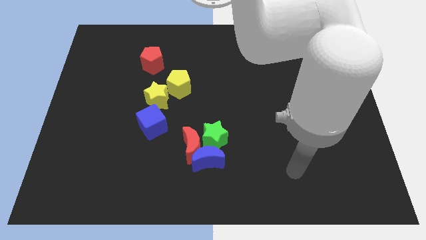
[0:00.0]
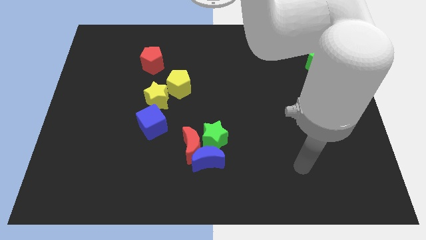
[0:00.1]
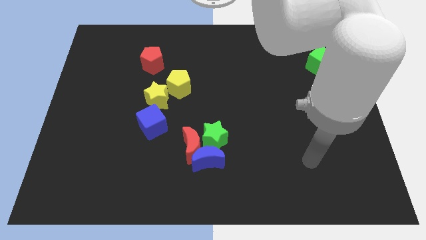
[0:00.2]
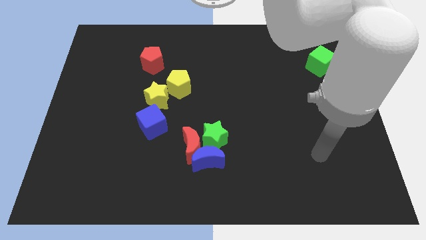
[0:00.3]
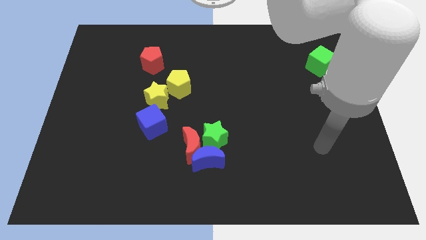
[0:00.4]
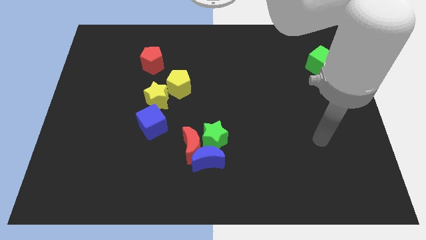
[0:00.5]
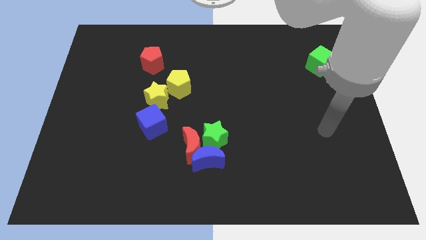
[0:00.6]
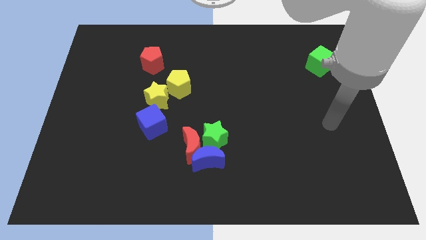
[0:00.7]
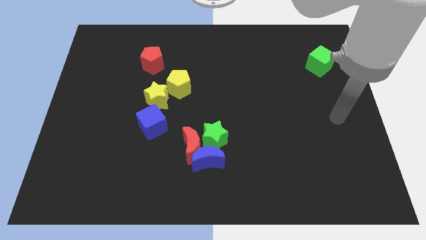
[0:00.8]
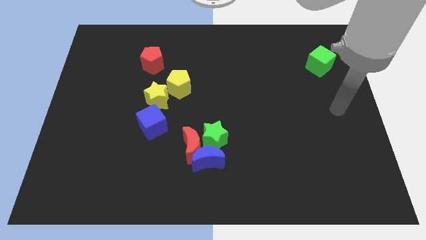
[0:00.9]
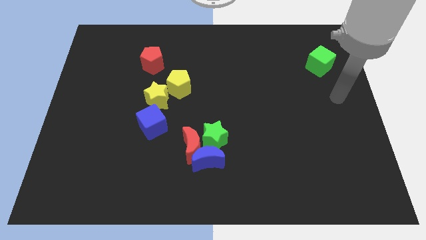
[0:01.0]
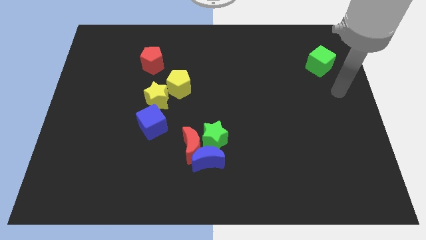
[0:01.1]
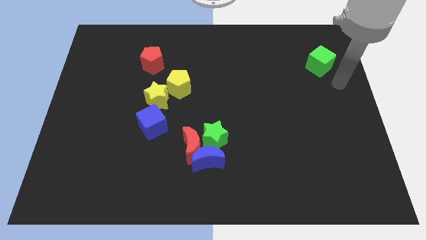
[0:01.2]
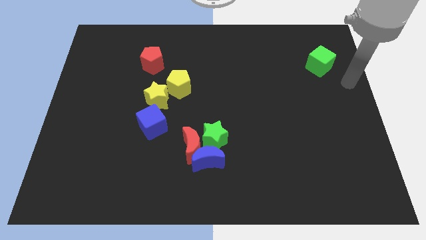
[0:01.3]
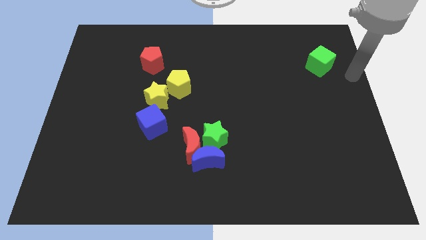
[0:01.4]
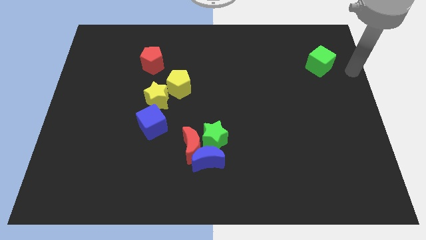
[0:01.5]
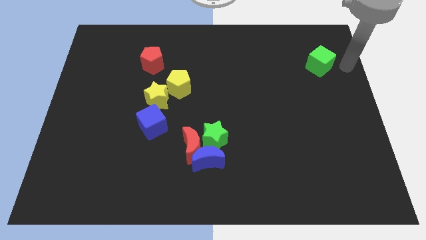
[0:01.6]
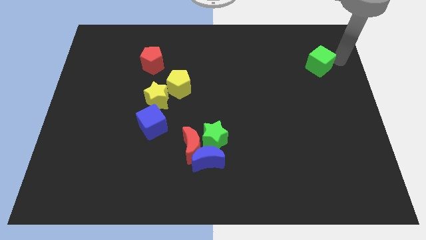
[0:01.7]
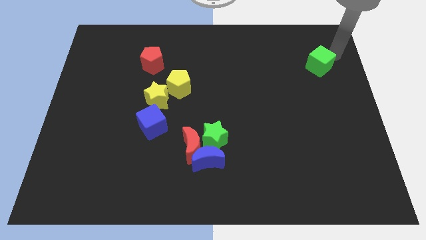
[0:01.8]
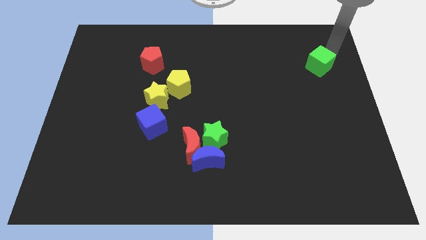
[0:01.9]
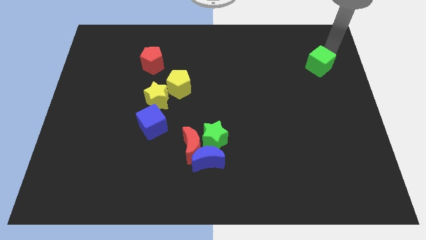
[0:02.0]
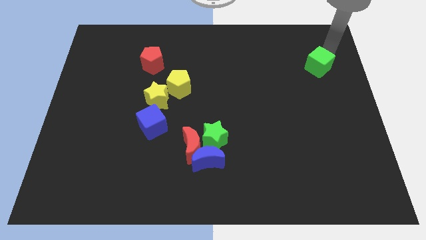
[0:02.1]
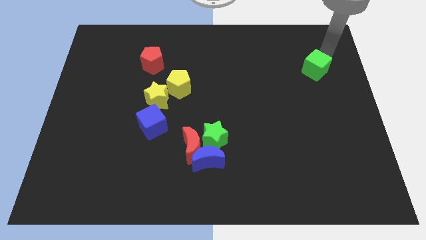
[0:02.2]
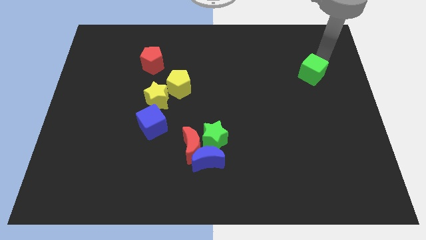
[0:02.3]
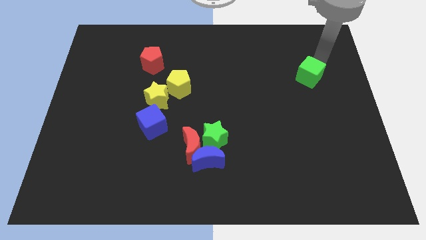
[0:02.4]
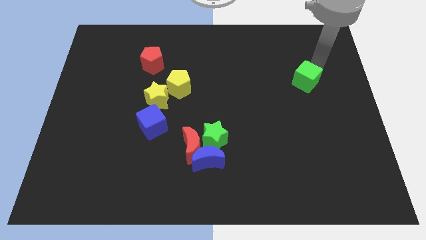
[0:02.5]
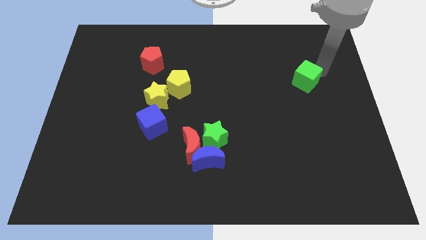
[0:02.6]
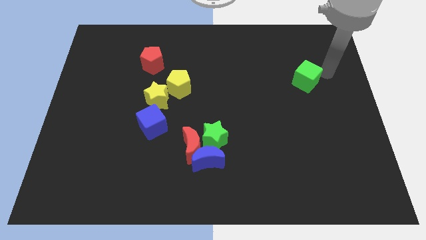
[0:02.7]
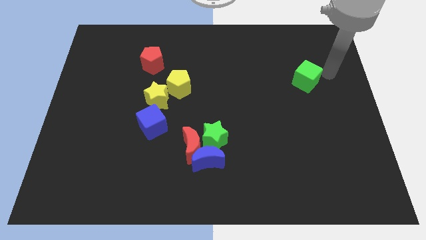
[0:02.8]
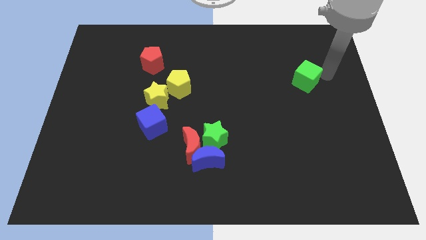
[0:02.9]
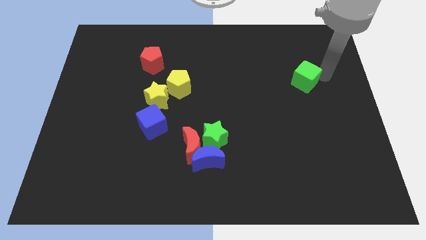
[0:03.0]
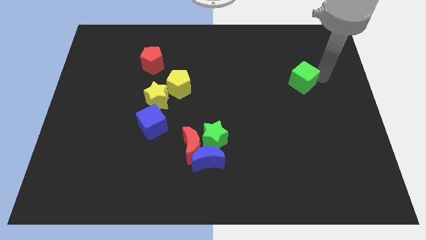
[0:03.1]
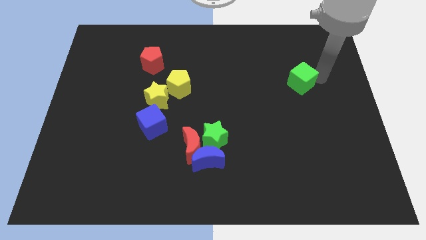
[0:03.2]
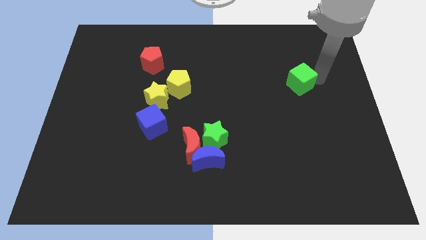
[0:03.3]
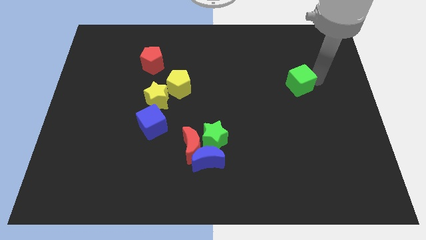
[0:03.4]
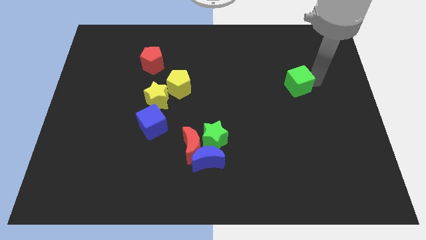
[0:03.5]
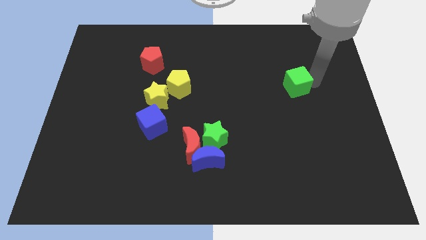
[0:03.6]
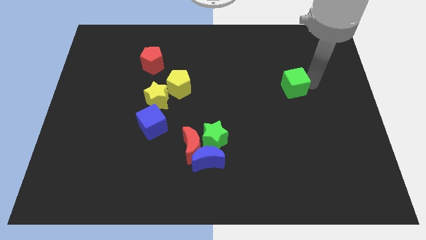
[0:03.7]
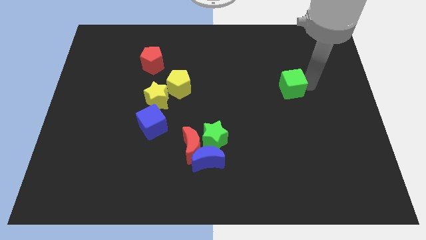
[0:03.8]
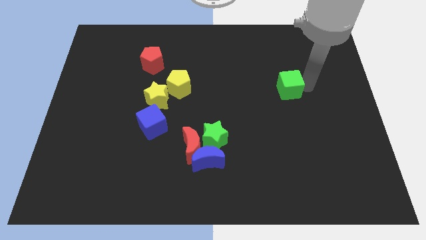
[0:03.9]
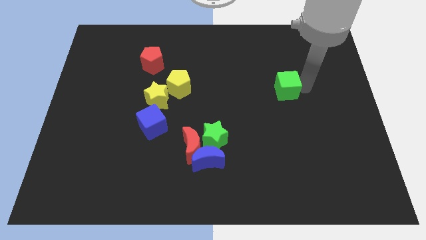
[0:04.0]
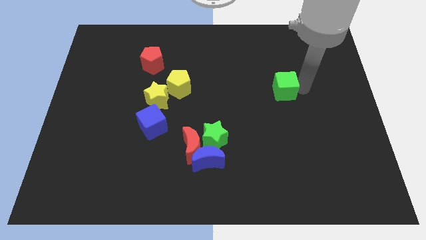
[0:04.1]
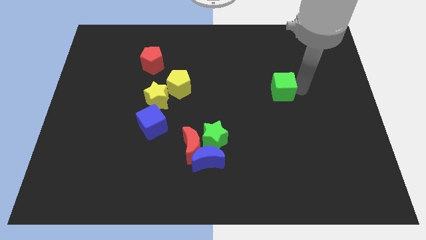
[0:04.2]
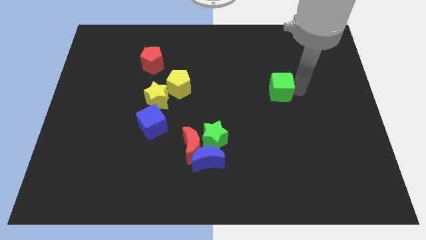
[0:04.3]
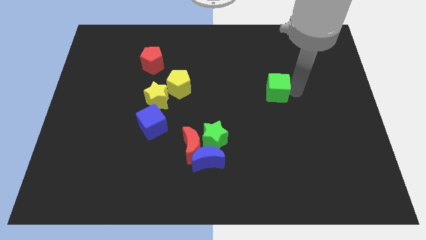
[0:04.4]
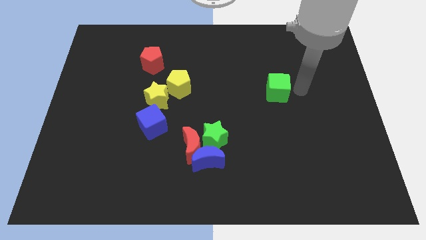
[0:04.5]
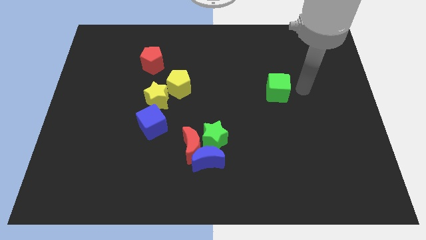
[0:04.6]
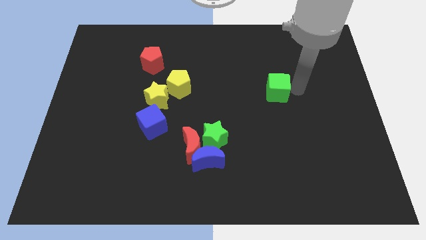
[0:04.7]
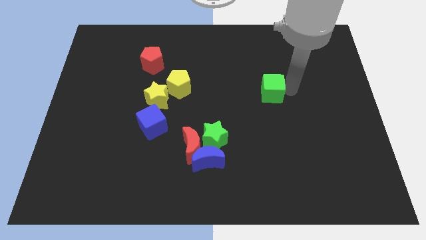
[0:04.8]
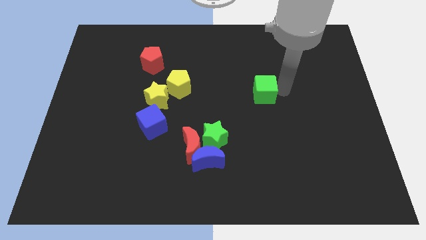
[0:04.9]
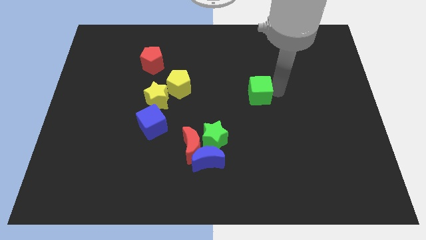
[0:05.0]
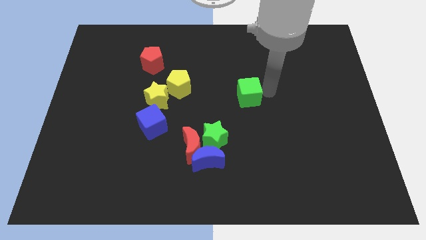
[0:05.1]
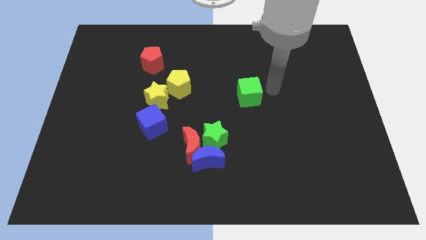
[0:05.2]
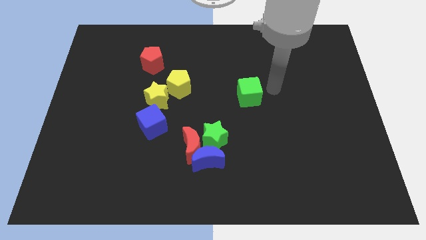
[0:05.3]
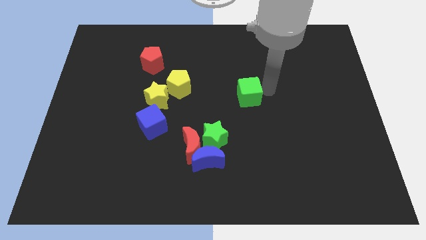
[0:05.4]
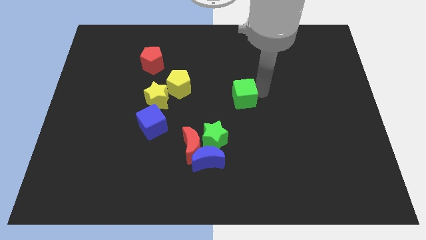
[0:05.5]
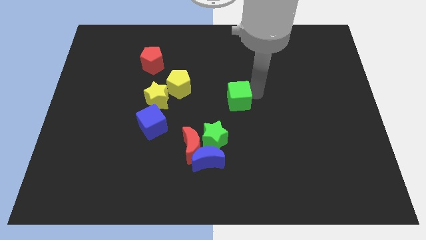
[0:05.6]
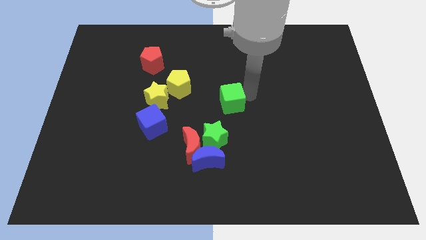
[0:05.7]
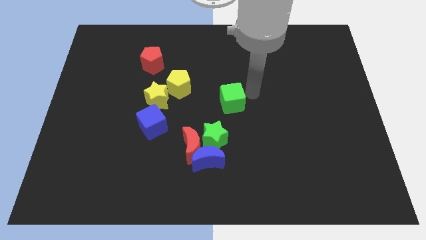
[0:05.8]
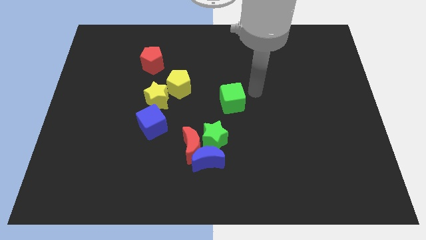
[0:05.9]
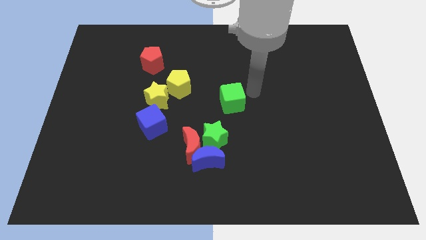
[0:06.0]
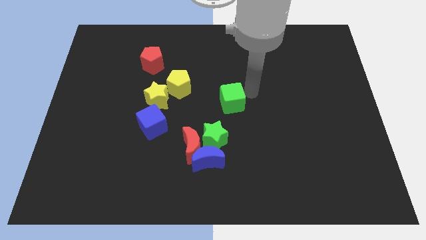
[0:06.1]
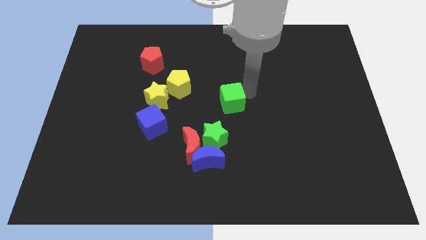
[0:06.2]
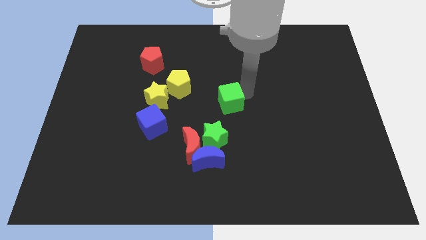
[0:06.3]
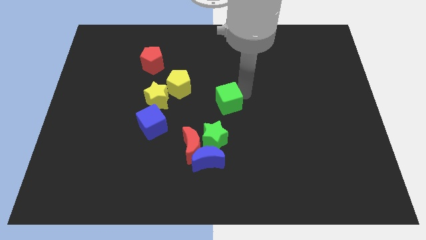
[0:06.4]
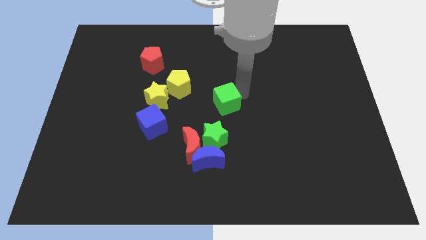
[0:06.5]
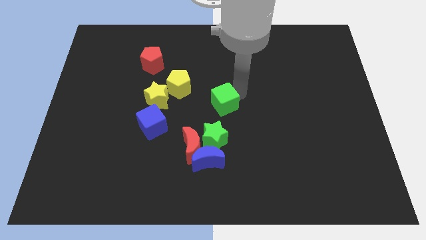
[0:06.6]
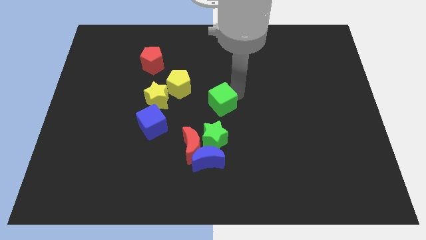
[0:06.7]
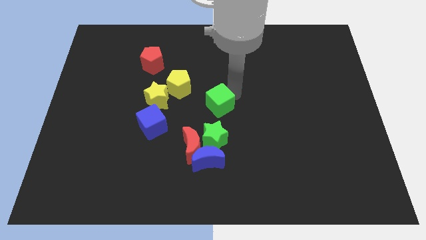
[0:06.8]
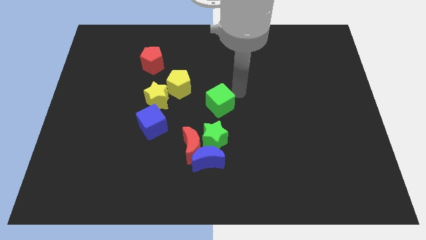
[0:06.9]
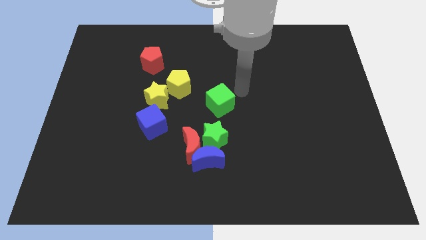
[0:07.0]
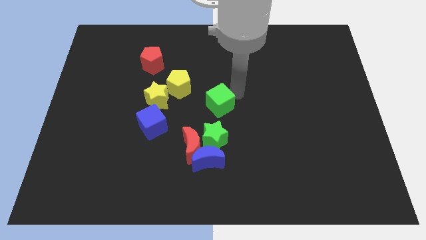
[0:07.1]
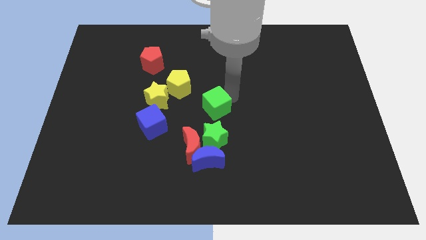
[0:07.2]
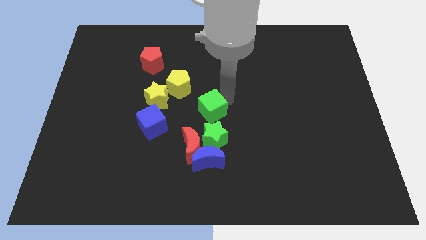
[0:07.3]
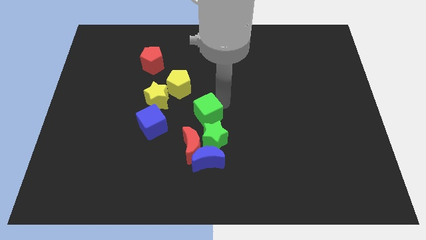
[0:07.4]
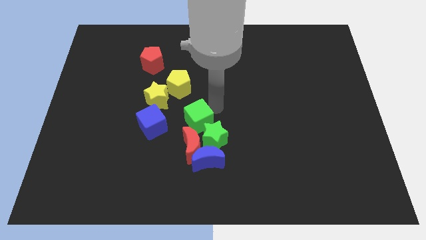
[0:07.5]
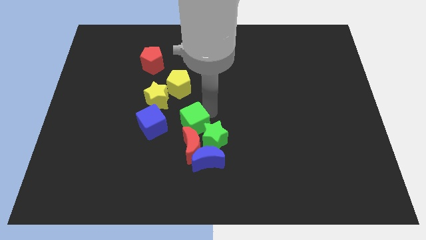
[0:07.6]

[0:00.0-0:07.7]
put the green cube to the left of the green star

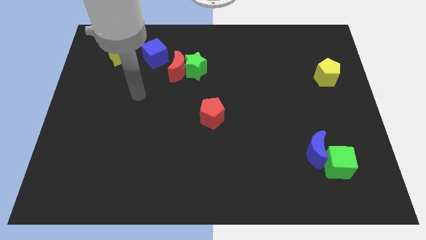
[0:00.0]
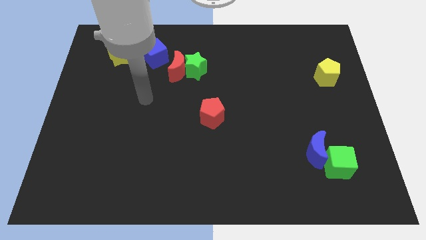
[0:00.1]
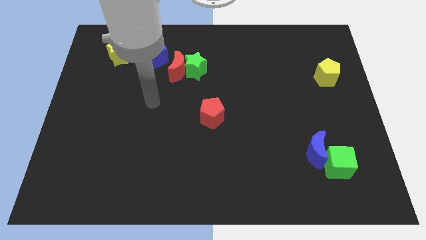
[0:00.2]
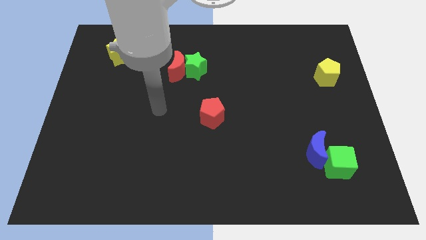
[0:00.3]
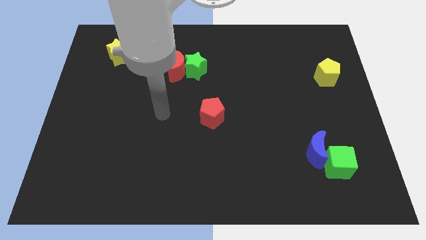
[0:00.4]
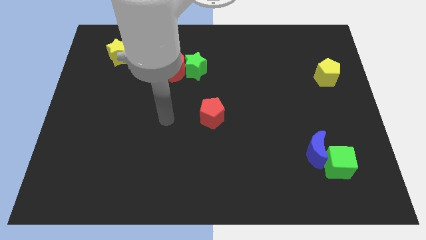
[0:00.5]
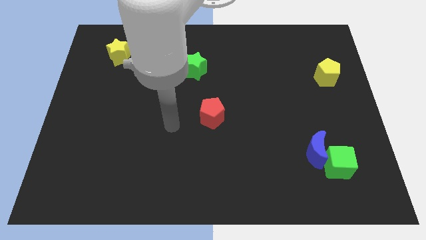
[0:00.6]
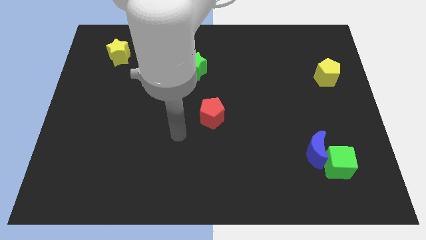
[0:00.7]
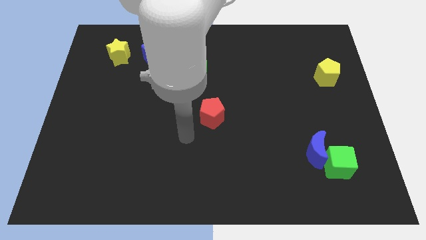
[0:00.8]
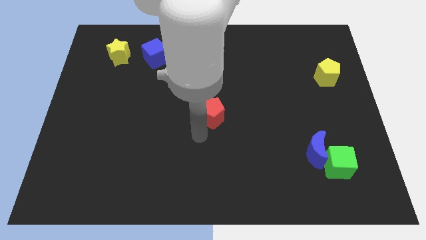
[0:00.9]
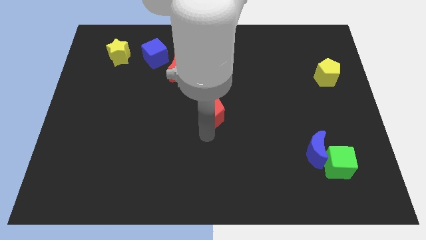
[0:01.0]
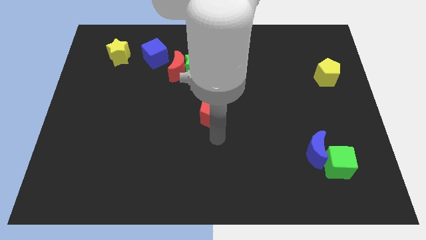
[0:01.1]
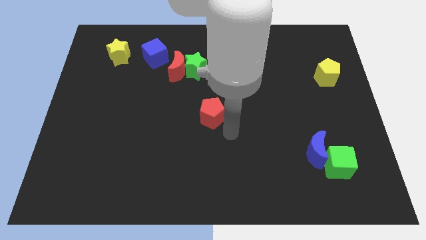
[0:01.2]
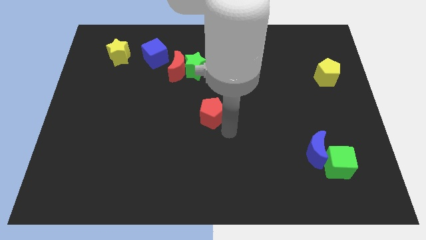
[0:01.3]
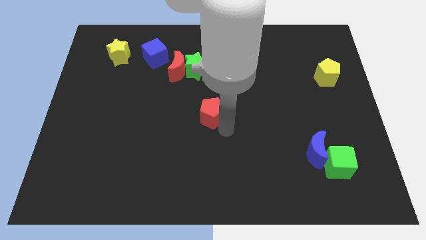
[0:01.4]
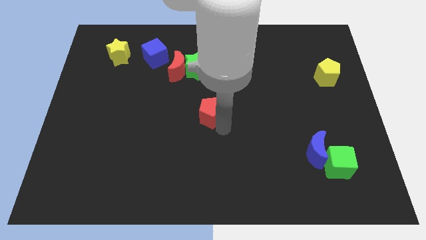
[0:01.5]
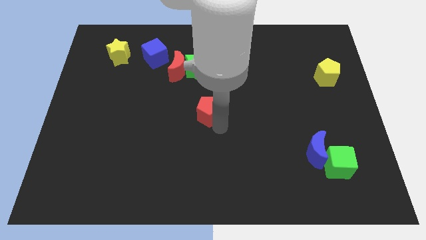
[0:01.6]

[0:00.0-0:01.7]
move the red pentagon to the bottom side of the green star
